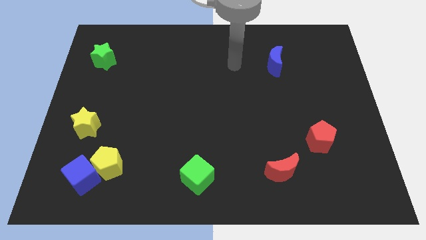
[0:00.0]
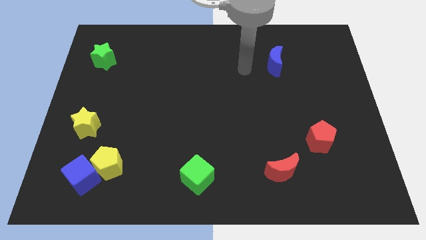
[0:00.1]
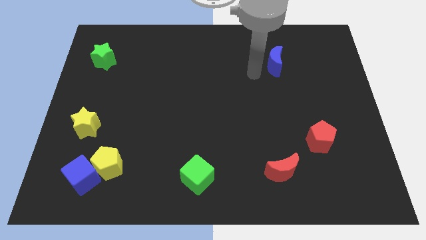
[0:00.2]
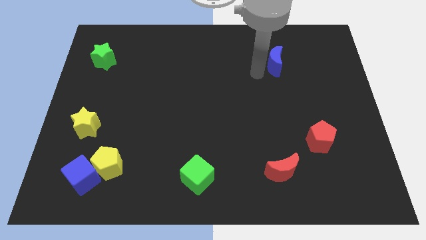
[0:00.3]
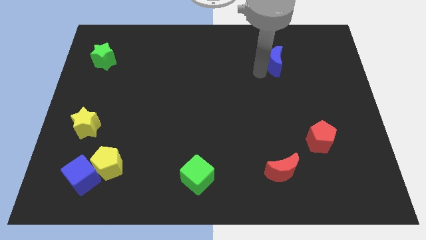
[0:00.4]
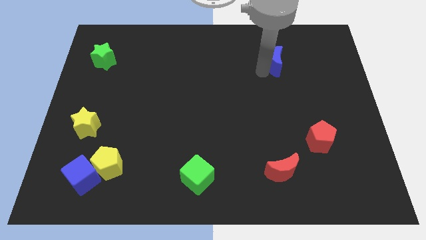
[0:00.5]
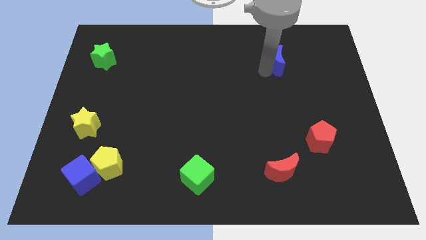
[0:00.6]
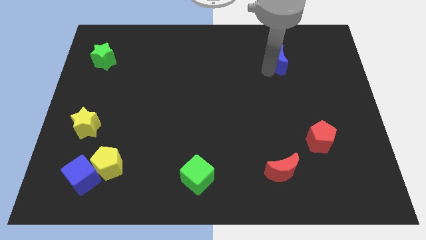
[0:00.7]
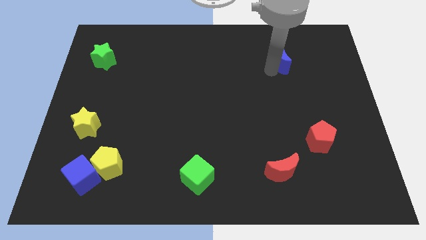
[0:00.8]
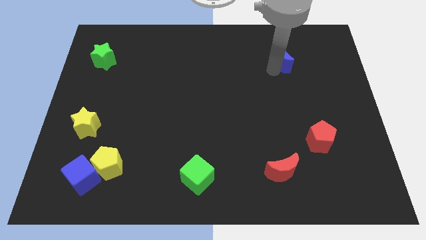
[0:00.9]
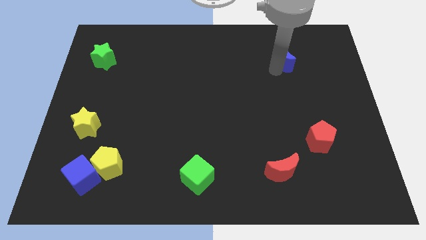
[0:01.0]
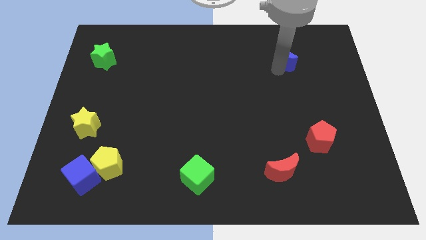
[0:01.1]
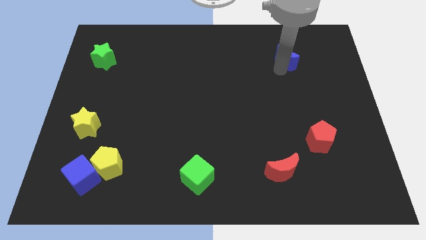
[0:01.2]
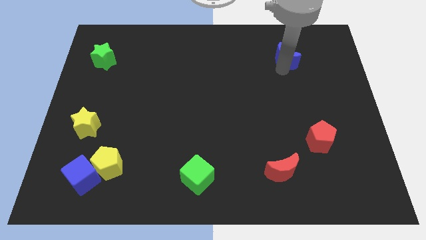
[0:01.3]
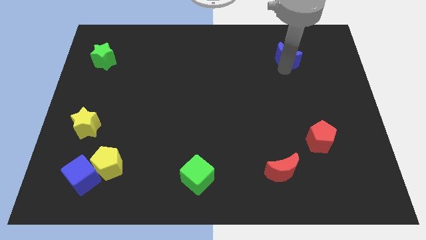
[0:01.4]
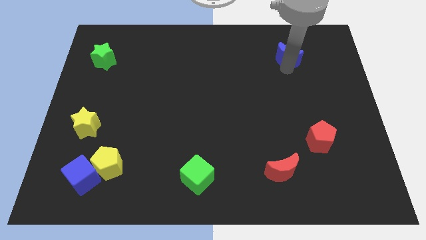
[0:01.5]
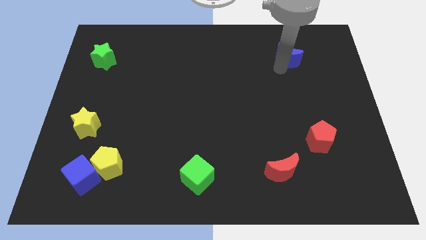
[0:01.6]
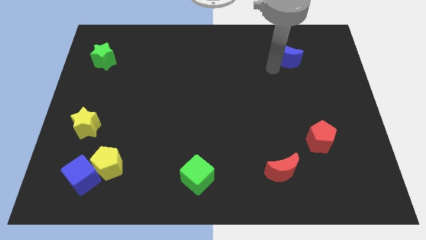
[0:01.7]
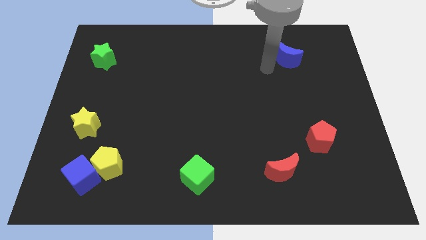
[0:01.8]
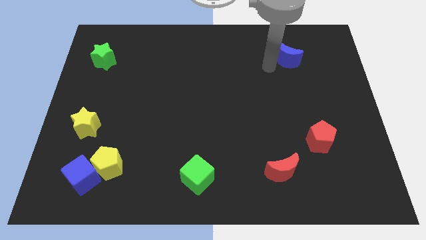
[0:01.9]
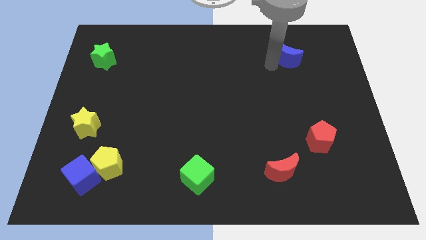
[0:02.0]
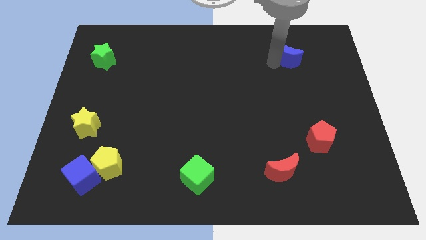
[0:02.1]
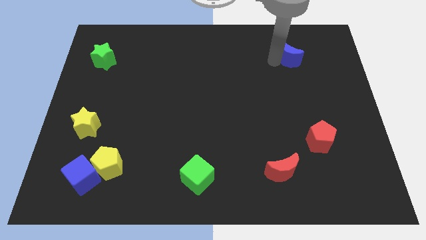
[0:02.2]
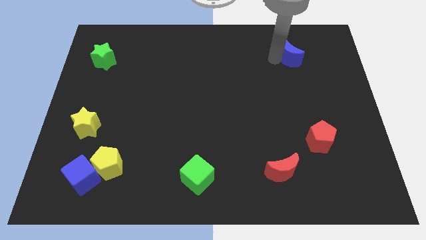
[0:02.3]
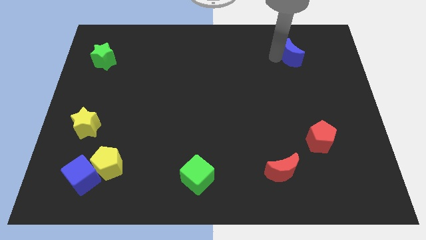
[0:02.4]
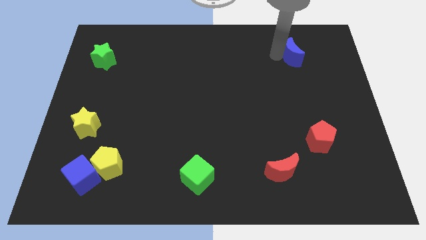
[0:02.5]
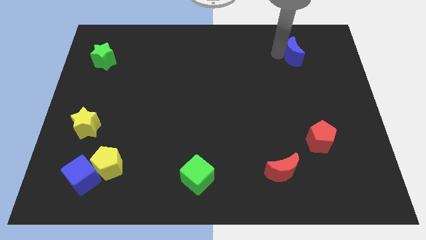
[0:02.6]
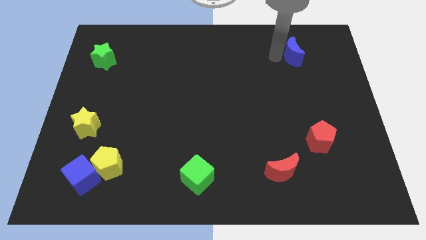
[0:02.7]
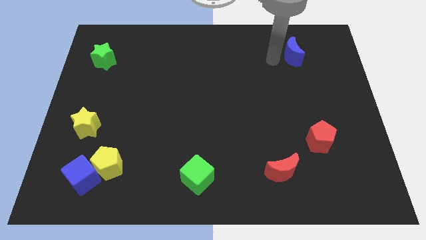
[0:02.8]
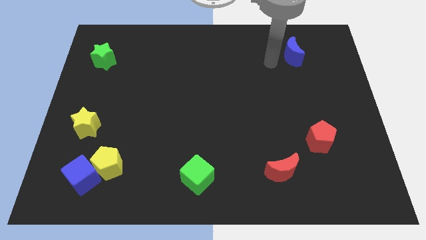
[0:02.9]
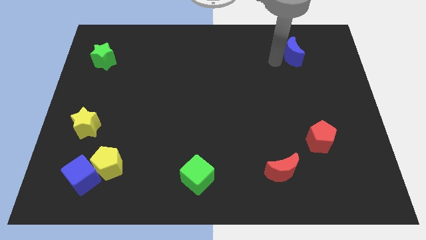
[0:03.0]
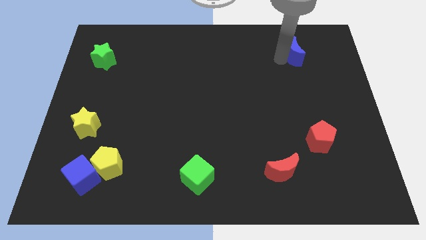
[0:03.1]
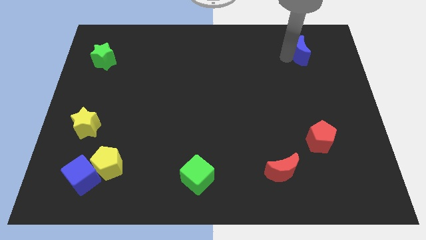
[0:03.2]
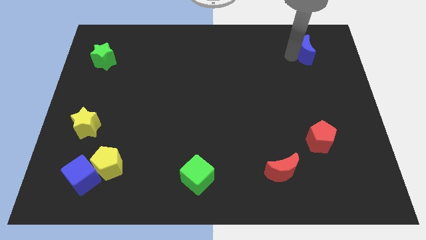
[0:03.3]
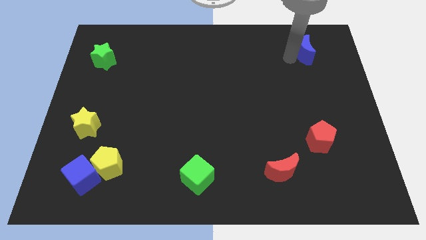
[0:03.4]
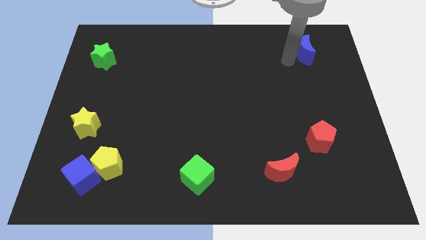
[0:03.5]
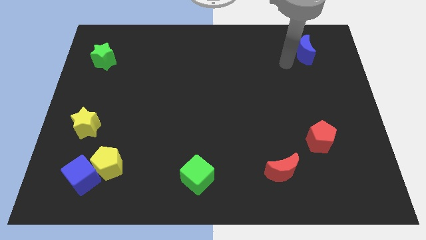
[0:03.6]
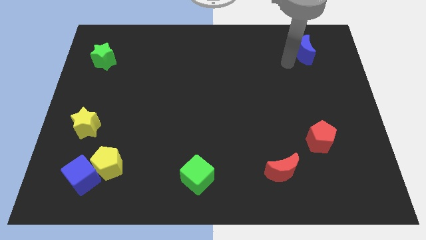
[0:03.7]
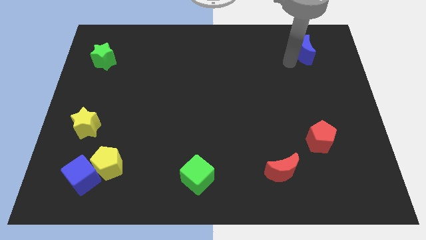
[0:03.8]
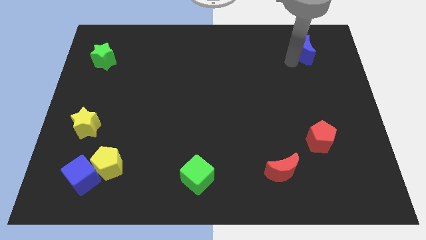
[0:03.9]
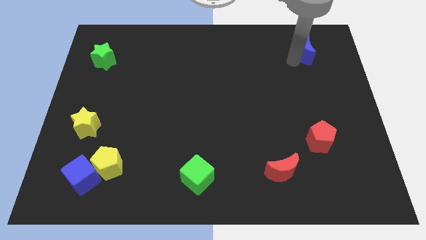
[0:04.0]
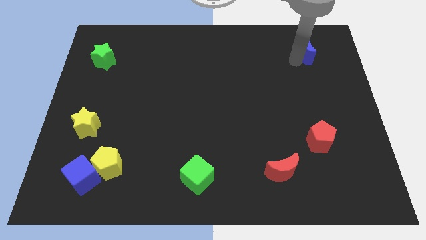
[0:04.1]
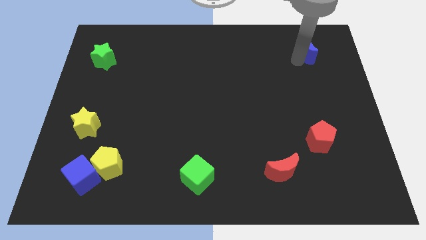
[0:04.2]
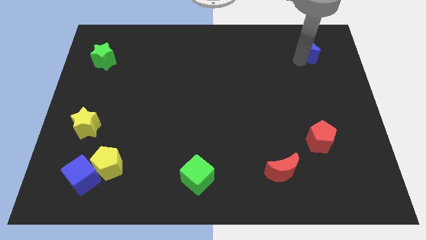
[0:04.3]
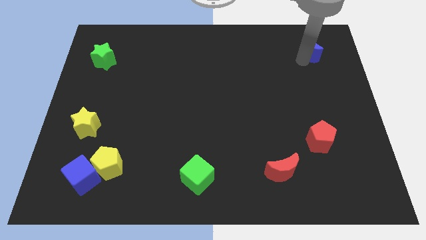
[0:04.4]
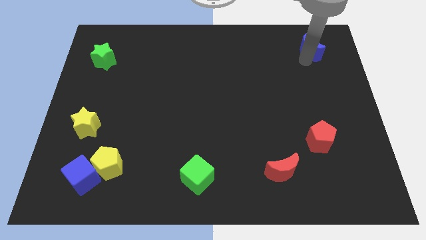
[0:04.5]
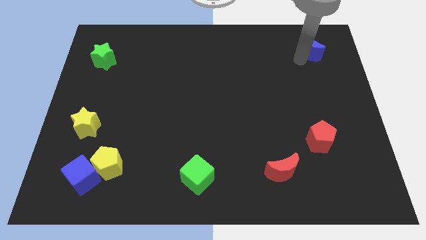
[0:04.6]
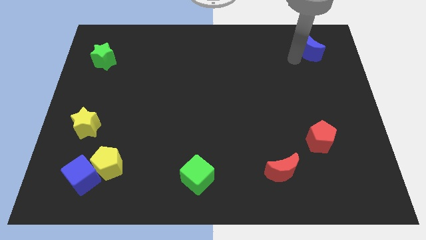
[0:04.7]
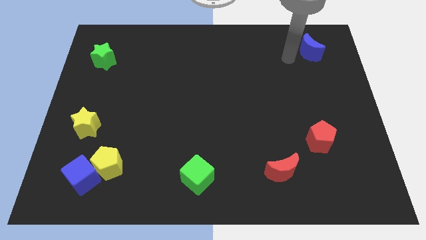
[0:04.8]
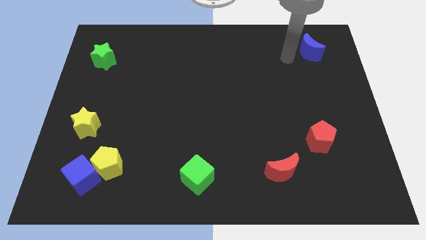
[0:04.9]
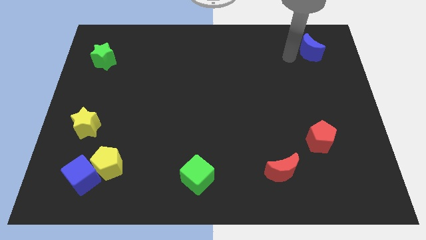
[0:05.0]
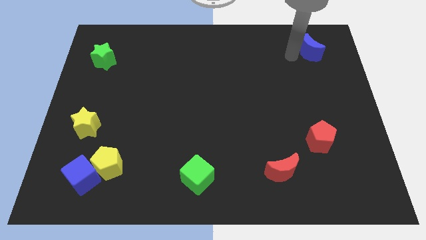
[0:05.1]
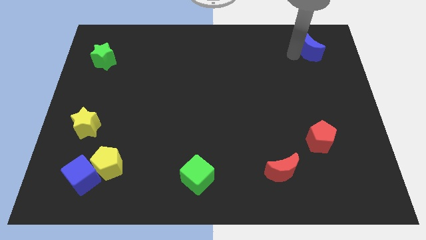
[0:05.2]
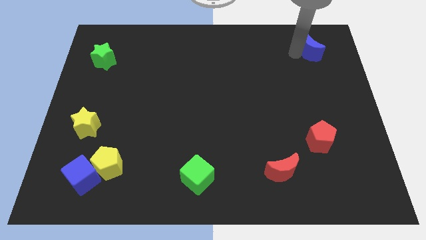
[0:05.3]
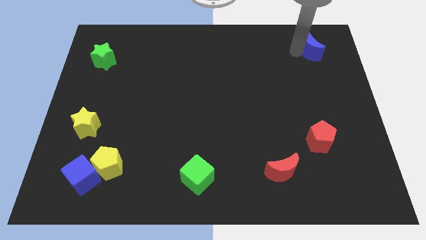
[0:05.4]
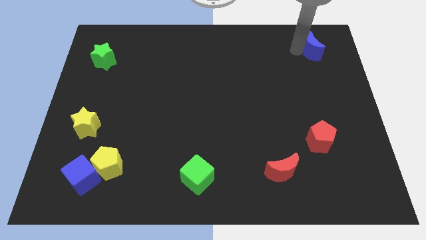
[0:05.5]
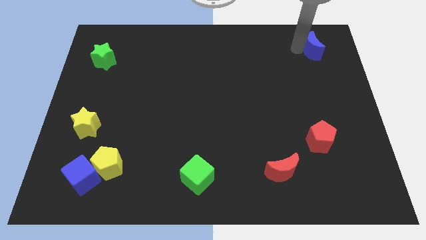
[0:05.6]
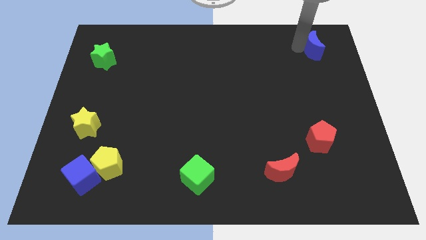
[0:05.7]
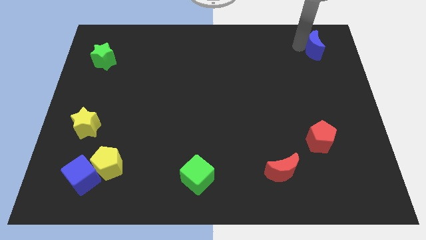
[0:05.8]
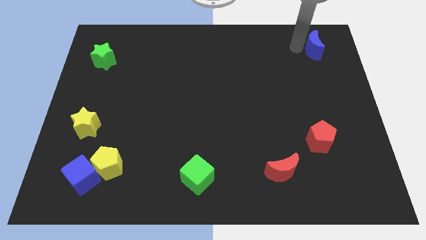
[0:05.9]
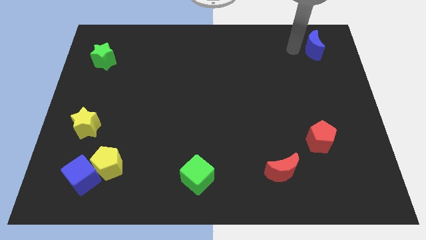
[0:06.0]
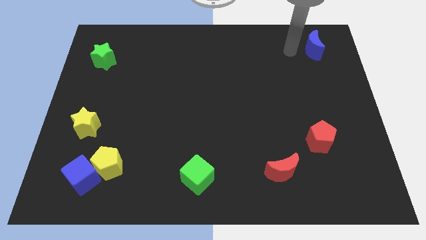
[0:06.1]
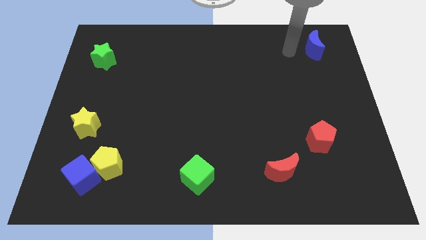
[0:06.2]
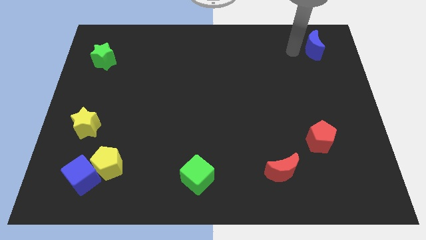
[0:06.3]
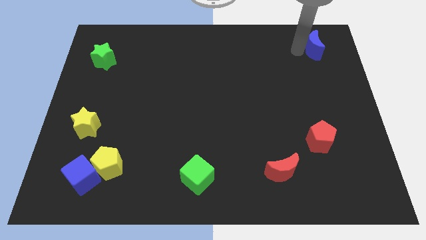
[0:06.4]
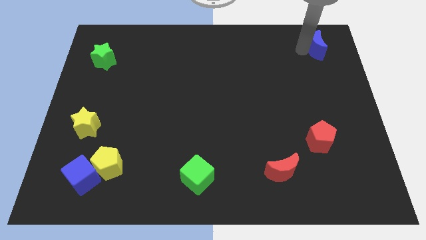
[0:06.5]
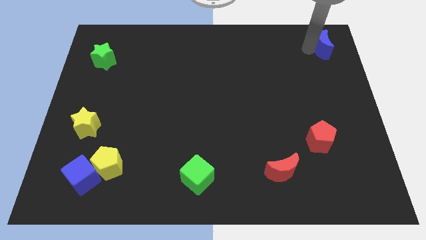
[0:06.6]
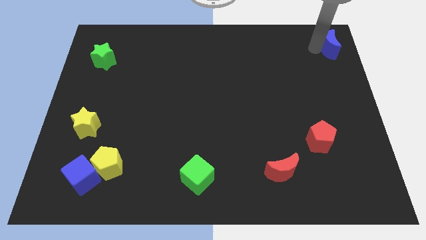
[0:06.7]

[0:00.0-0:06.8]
move the blue moon to the upper right corner

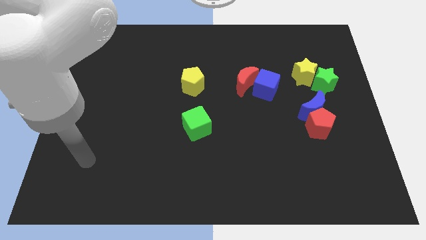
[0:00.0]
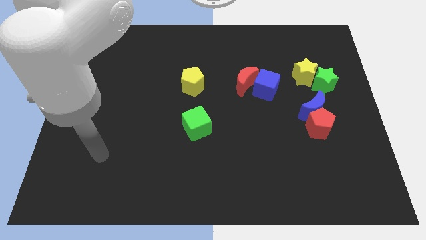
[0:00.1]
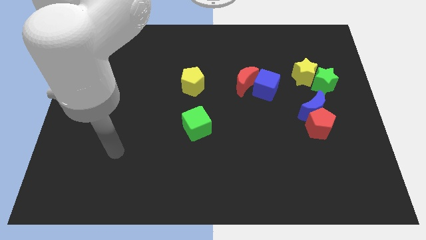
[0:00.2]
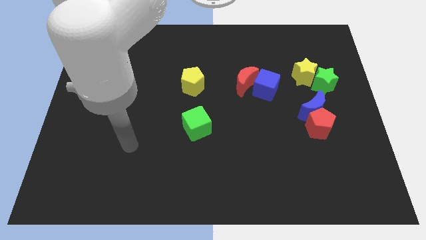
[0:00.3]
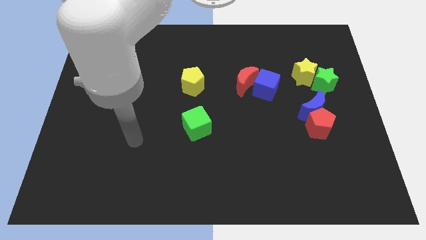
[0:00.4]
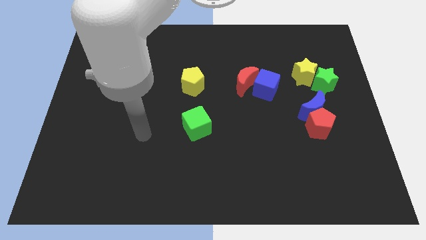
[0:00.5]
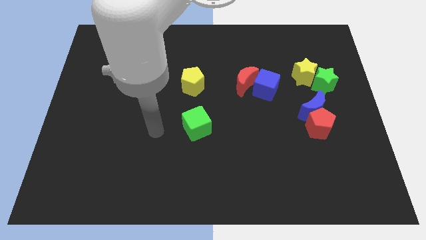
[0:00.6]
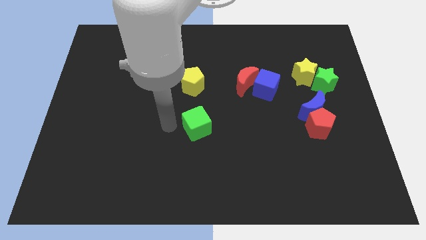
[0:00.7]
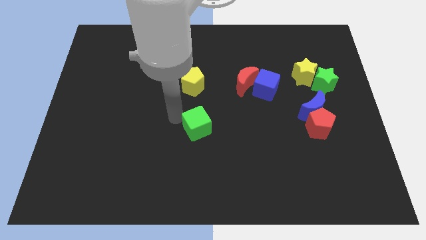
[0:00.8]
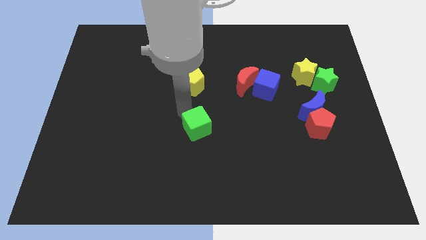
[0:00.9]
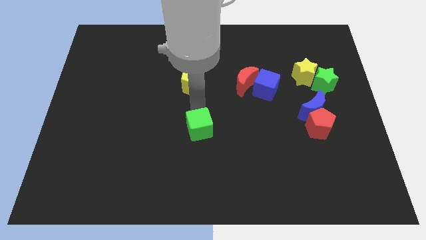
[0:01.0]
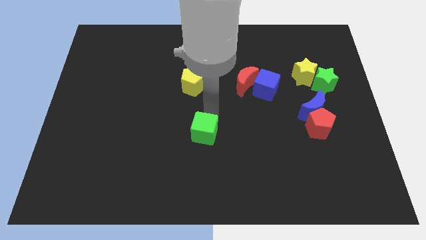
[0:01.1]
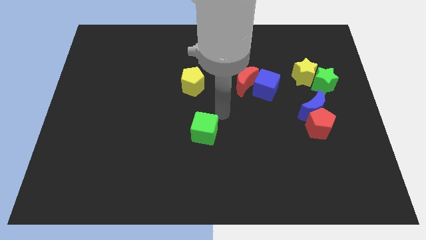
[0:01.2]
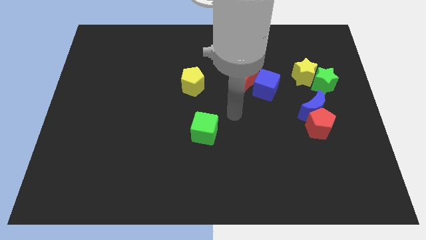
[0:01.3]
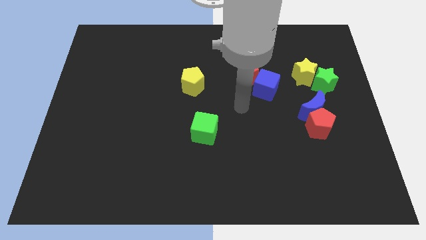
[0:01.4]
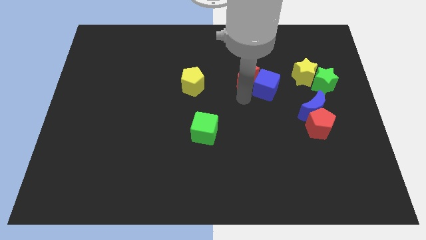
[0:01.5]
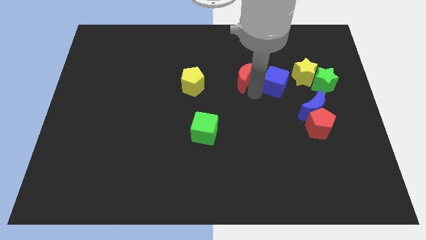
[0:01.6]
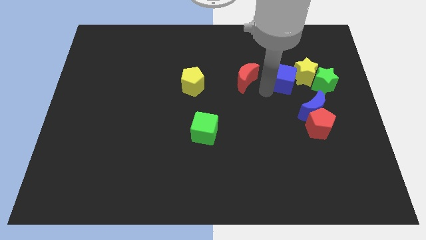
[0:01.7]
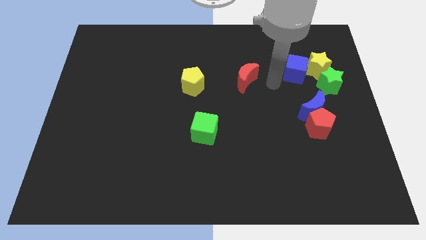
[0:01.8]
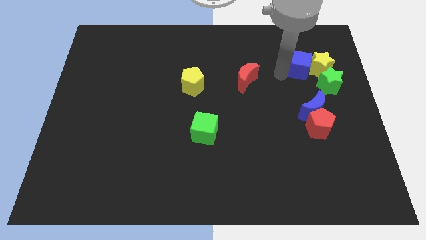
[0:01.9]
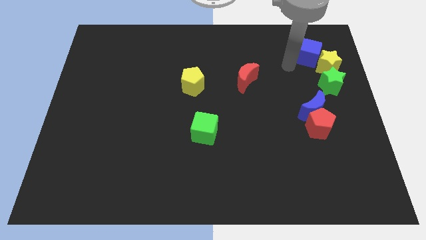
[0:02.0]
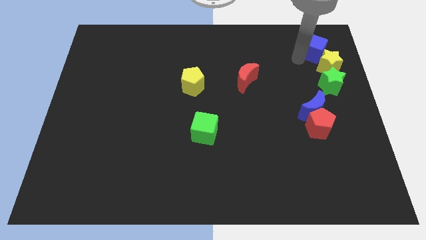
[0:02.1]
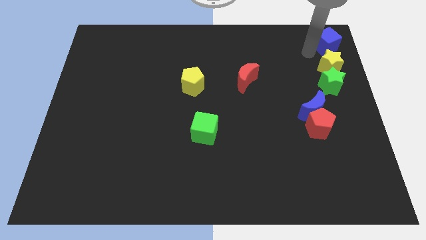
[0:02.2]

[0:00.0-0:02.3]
slide the yellow star to the center right
